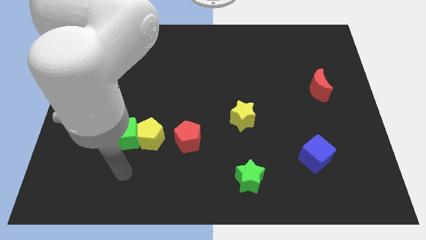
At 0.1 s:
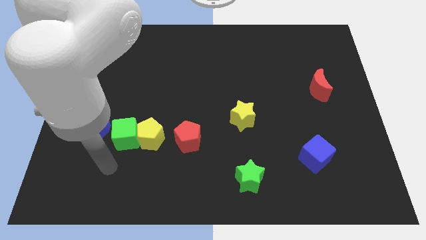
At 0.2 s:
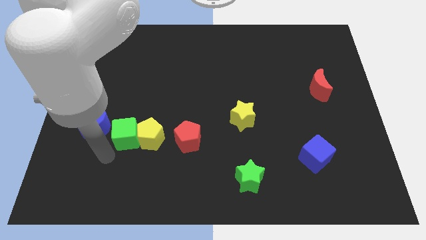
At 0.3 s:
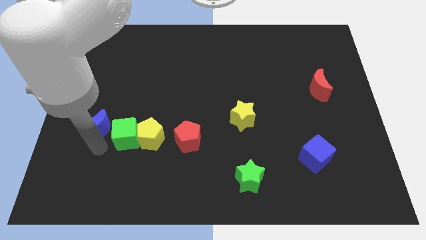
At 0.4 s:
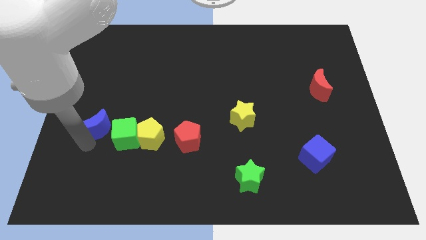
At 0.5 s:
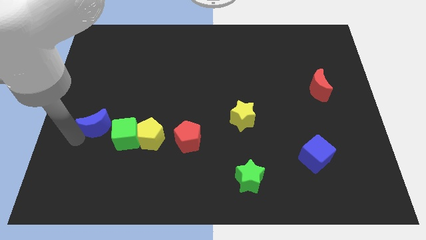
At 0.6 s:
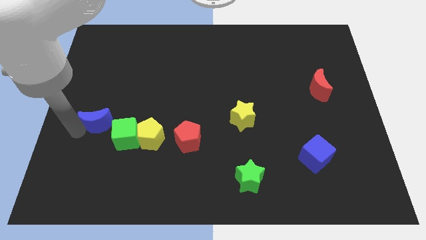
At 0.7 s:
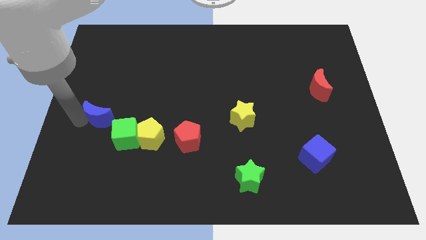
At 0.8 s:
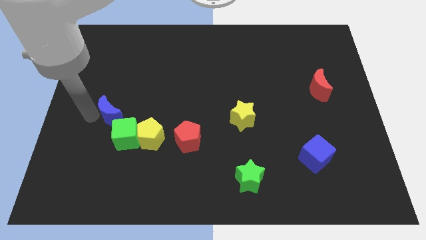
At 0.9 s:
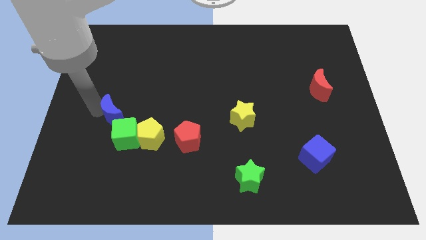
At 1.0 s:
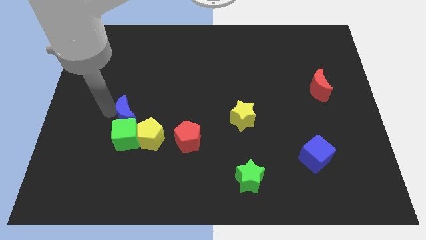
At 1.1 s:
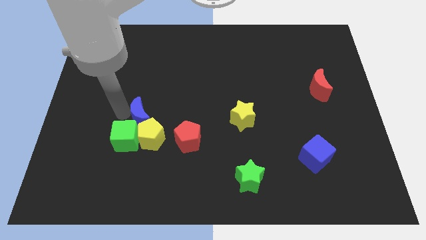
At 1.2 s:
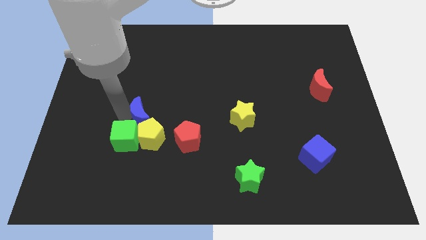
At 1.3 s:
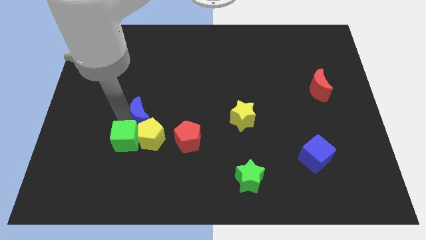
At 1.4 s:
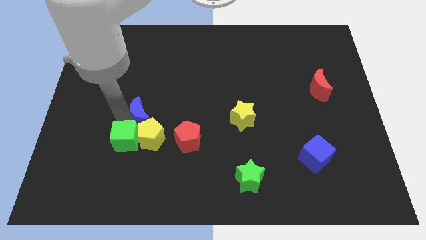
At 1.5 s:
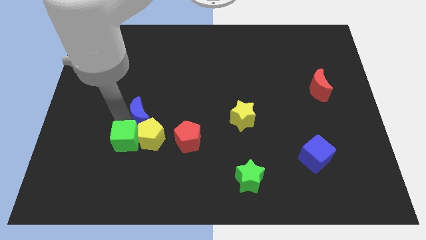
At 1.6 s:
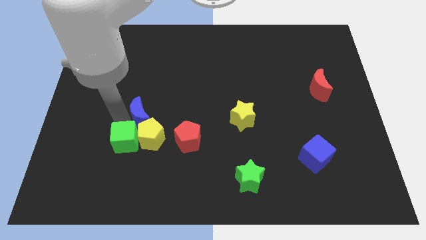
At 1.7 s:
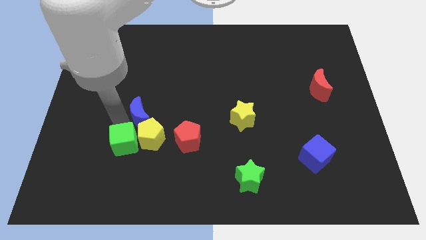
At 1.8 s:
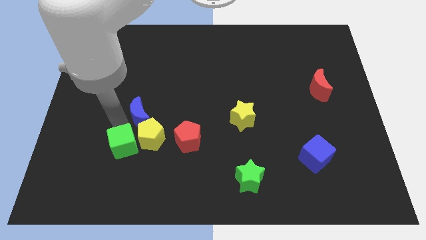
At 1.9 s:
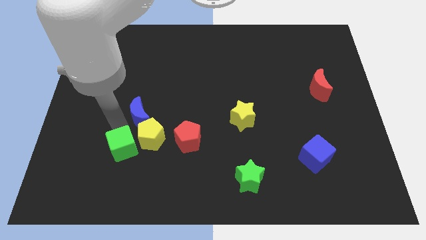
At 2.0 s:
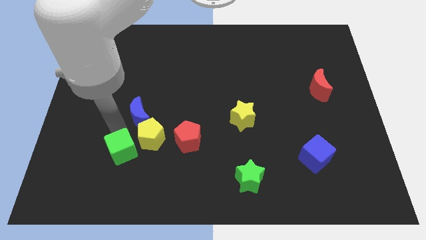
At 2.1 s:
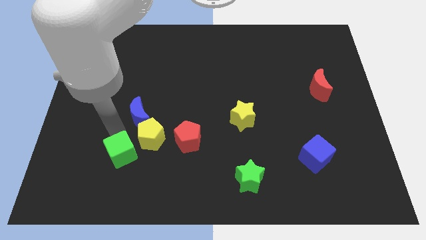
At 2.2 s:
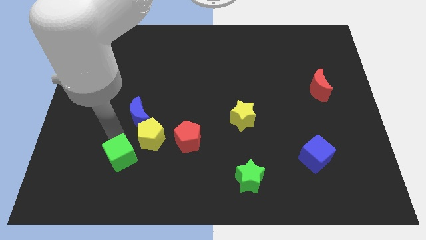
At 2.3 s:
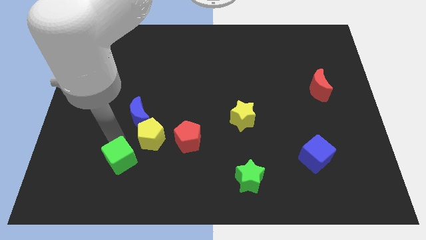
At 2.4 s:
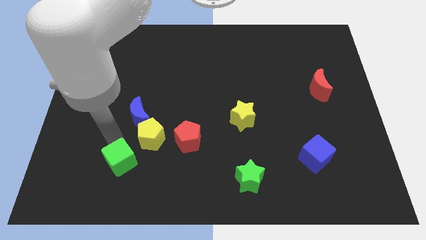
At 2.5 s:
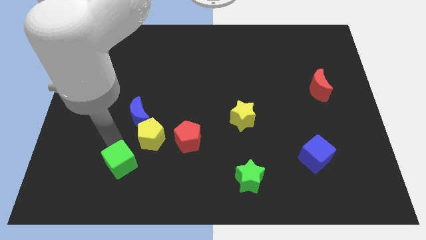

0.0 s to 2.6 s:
pull the green cube apart from the yellow pentagon and blue moon

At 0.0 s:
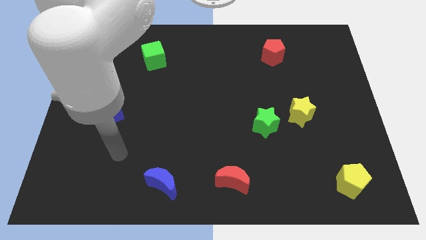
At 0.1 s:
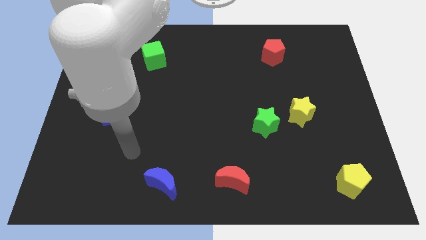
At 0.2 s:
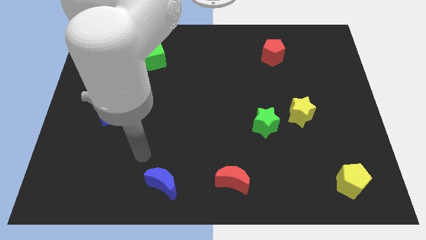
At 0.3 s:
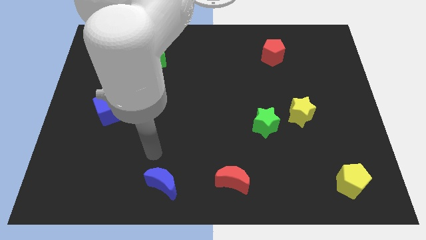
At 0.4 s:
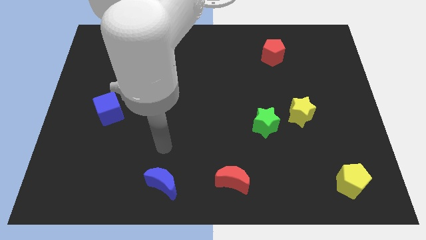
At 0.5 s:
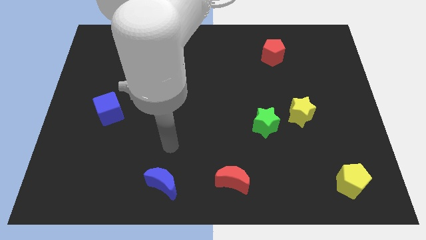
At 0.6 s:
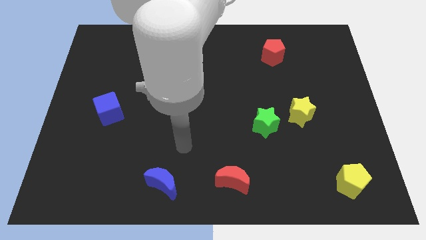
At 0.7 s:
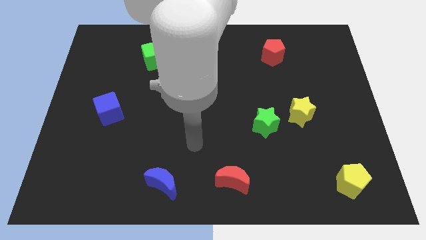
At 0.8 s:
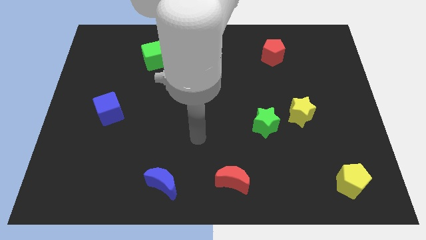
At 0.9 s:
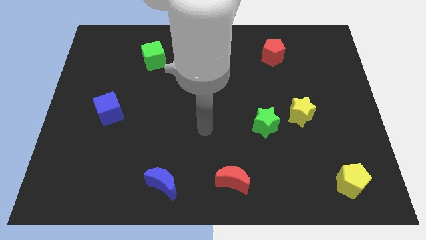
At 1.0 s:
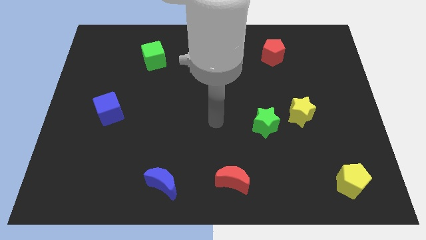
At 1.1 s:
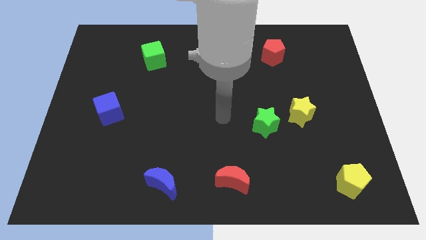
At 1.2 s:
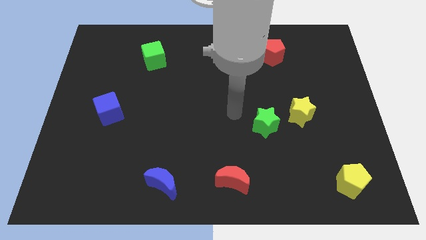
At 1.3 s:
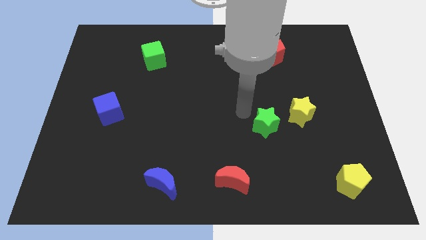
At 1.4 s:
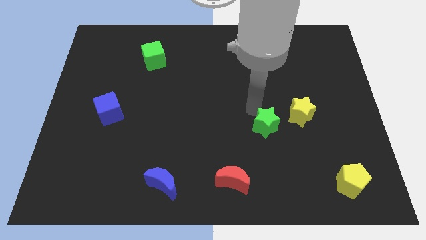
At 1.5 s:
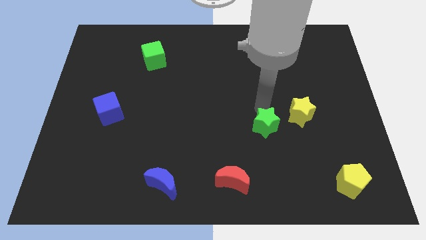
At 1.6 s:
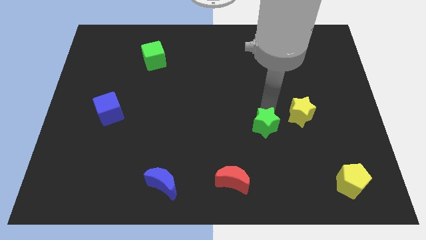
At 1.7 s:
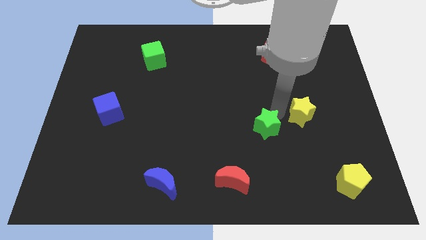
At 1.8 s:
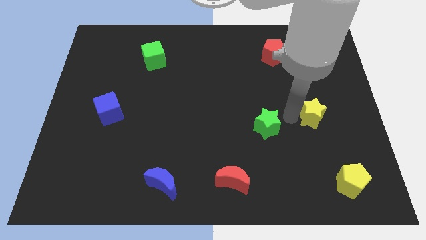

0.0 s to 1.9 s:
pull the green star apart from the yellow star

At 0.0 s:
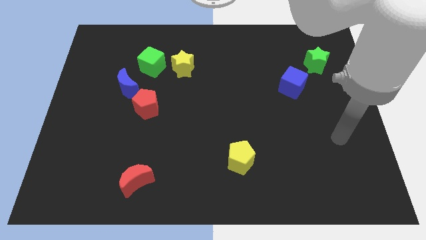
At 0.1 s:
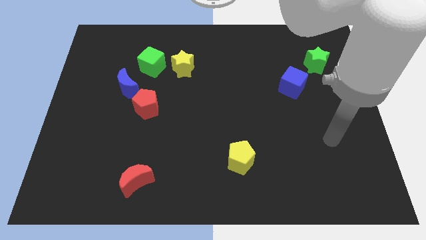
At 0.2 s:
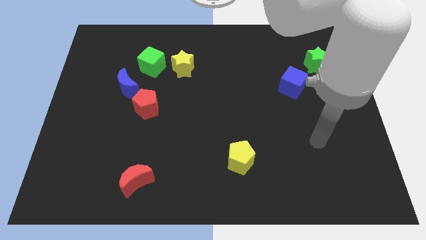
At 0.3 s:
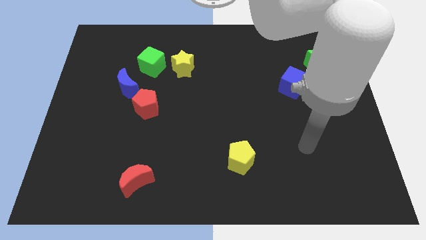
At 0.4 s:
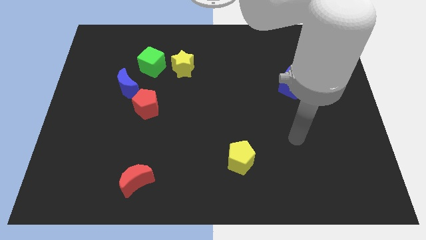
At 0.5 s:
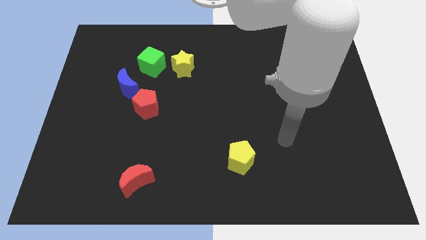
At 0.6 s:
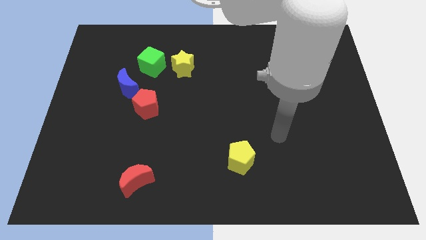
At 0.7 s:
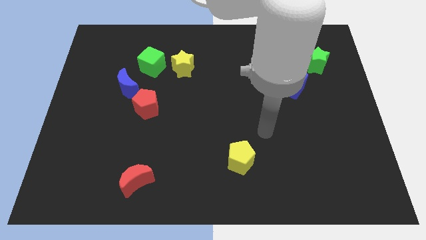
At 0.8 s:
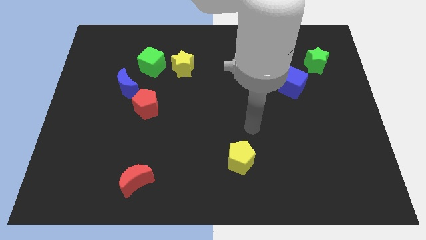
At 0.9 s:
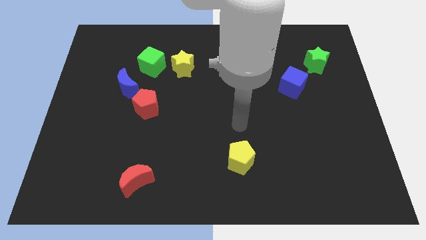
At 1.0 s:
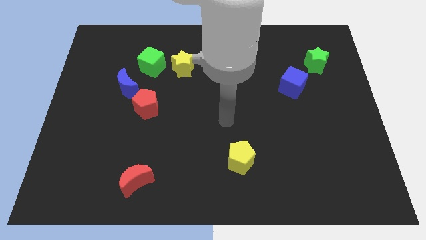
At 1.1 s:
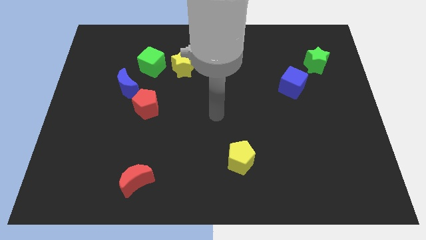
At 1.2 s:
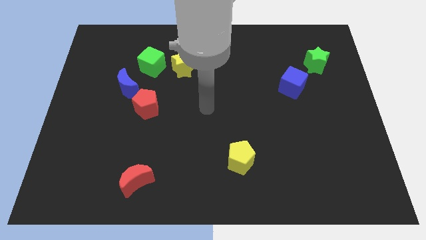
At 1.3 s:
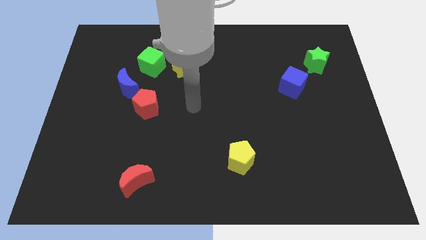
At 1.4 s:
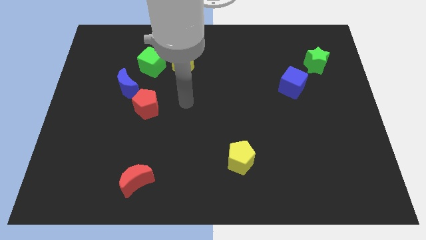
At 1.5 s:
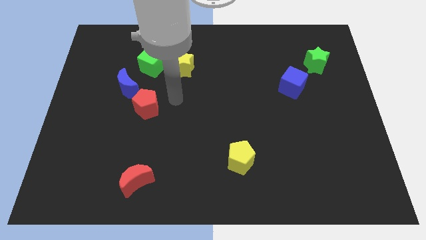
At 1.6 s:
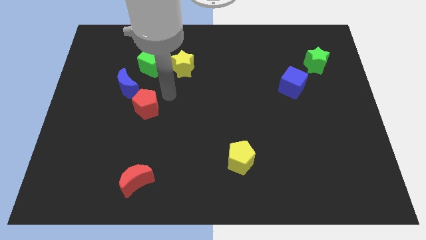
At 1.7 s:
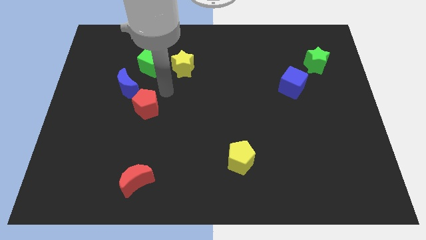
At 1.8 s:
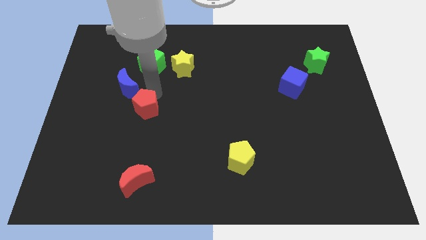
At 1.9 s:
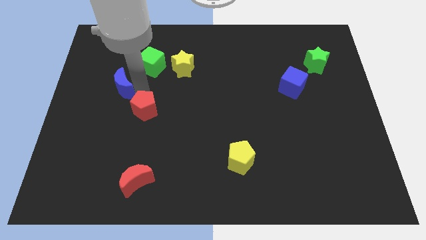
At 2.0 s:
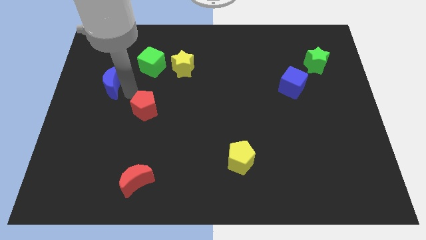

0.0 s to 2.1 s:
move the red pentagon away from the blue moon

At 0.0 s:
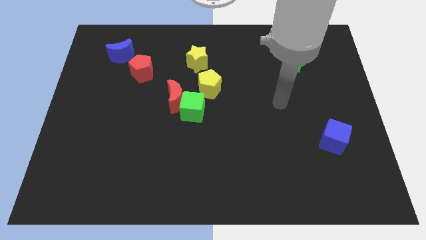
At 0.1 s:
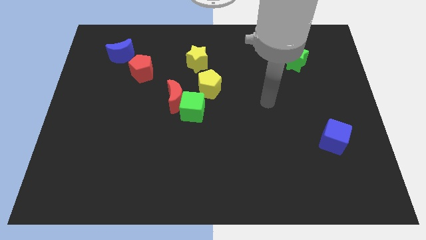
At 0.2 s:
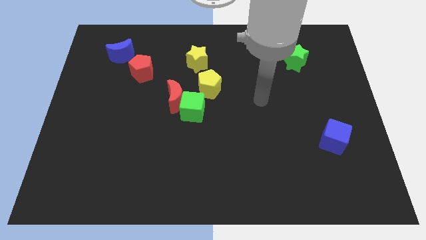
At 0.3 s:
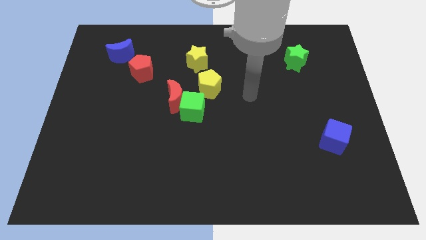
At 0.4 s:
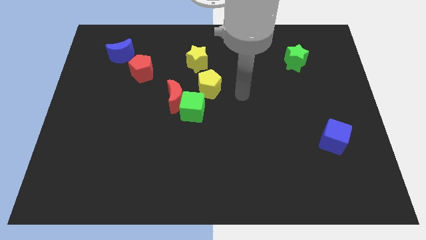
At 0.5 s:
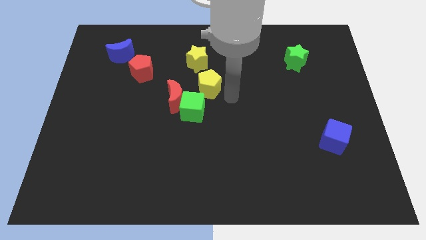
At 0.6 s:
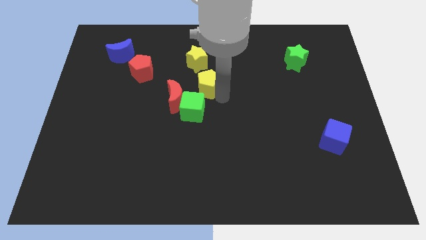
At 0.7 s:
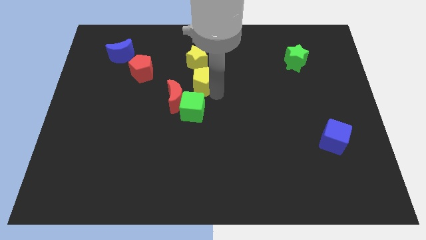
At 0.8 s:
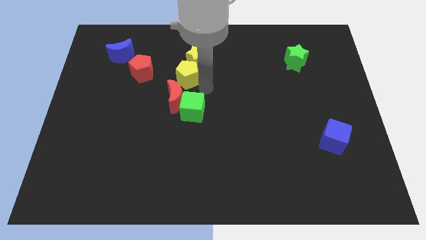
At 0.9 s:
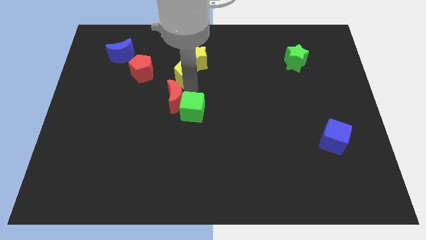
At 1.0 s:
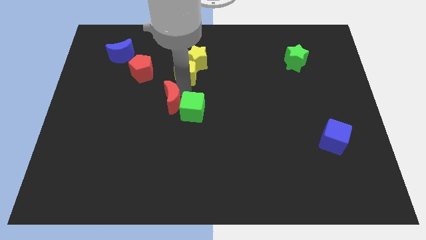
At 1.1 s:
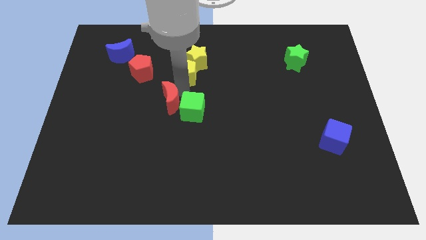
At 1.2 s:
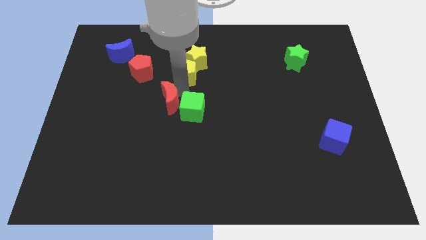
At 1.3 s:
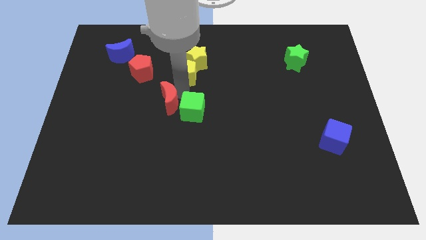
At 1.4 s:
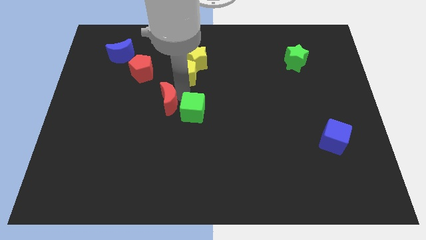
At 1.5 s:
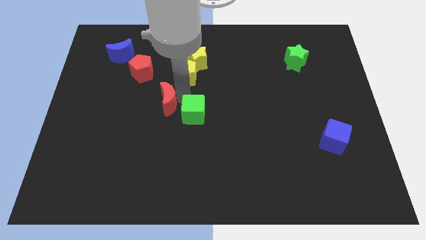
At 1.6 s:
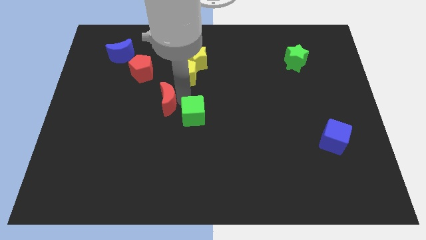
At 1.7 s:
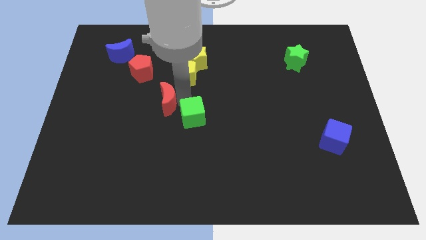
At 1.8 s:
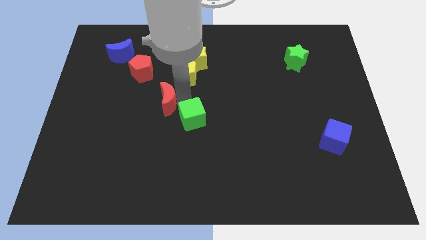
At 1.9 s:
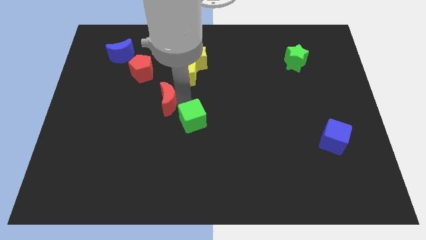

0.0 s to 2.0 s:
move the green cube away from the red moon and yellow pentagon

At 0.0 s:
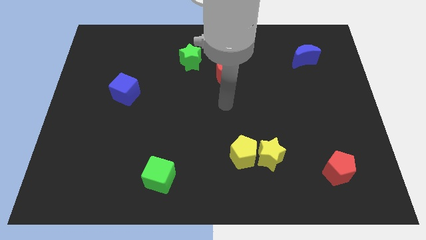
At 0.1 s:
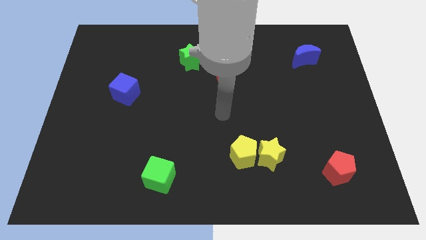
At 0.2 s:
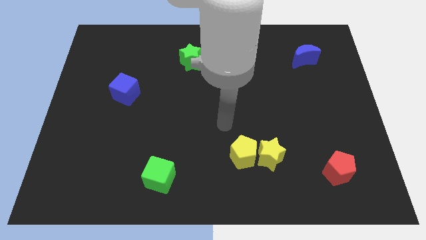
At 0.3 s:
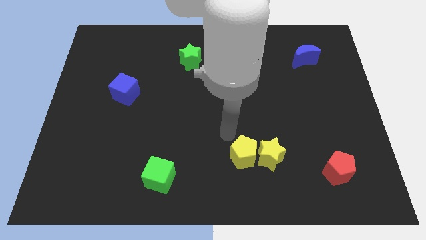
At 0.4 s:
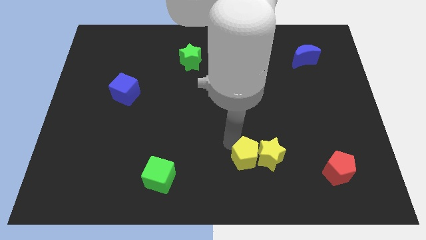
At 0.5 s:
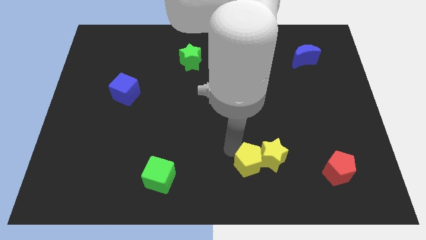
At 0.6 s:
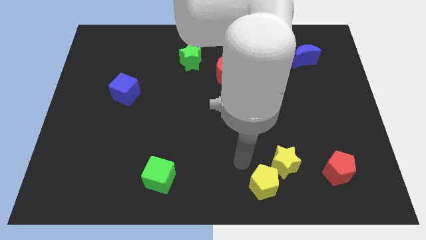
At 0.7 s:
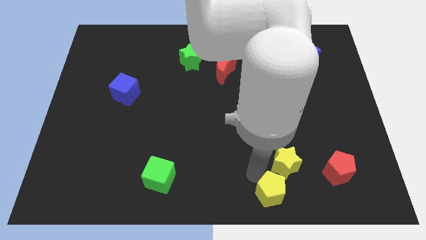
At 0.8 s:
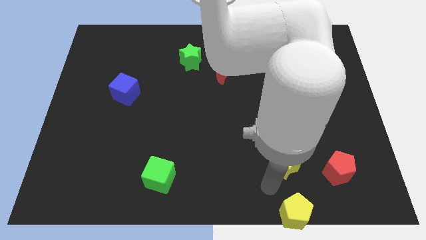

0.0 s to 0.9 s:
separate the yellow star from the yellow pentagon
